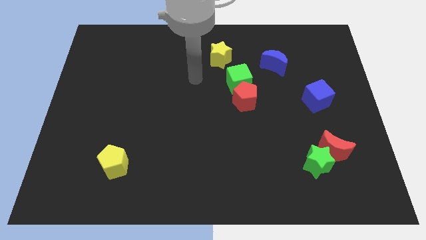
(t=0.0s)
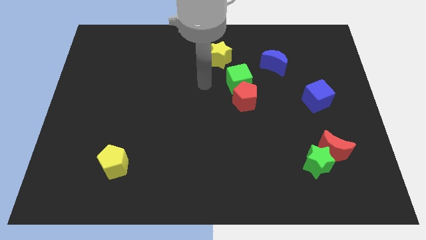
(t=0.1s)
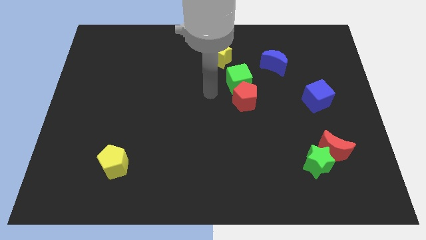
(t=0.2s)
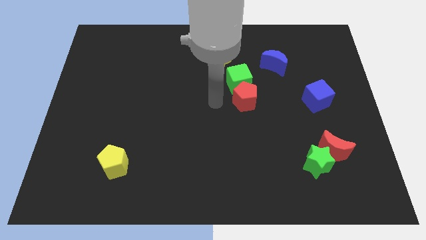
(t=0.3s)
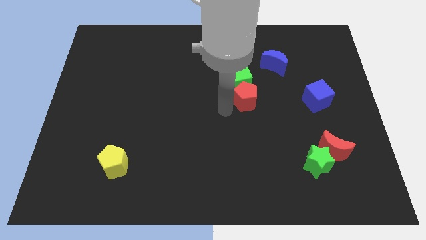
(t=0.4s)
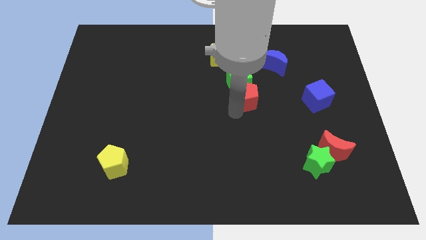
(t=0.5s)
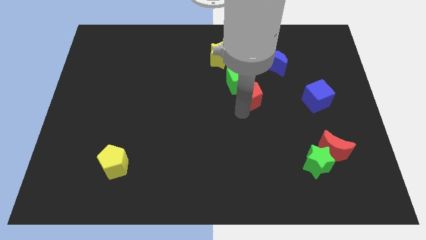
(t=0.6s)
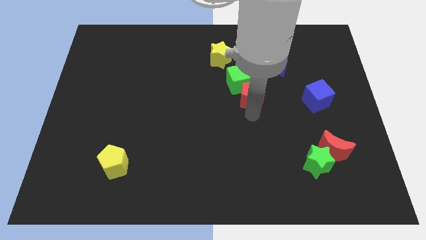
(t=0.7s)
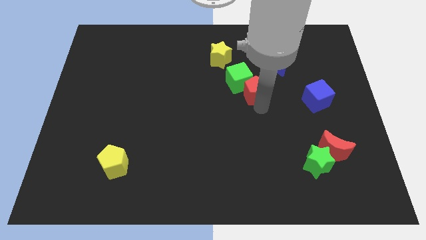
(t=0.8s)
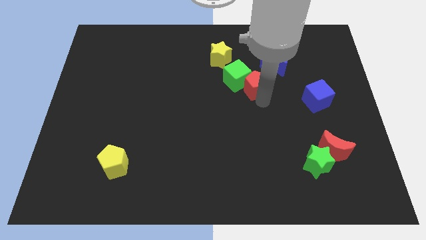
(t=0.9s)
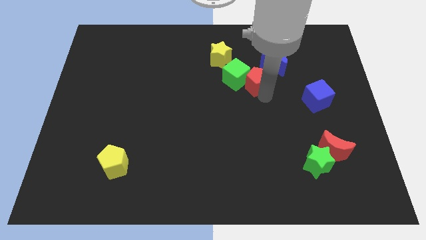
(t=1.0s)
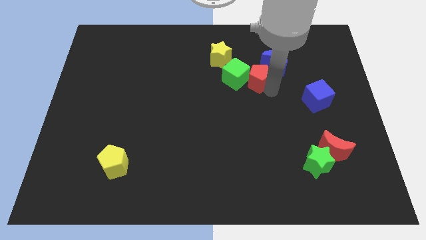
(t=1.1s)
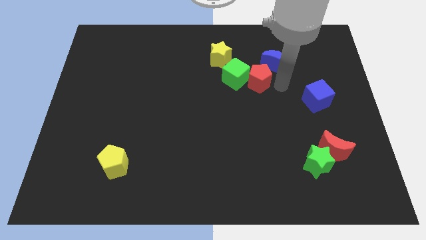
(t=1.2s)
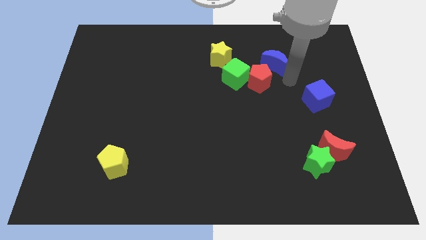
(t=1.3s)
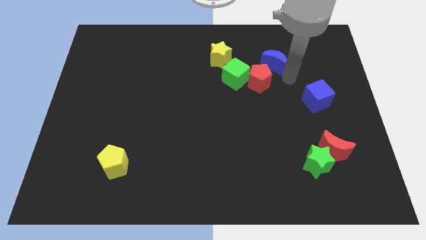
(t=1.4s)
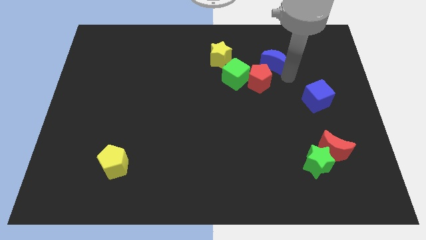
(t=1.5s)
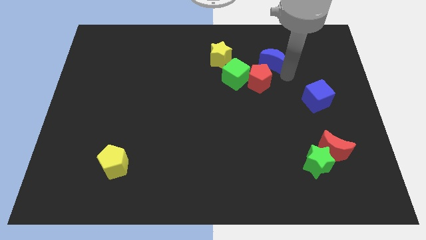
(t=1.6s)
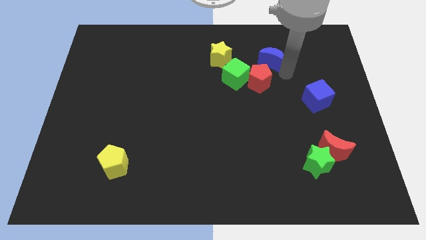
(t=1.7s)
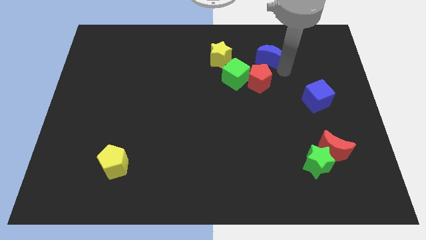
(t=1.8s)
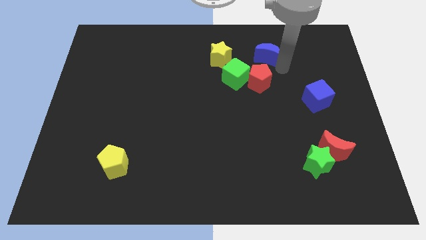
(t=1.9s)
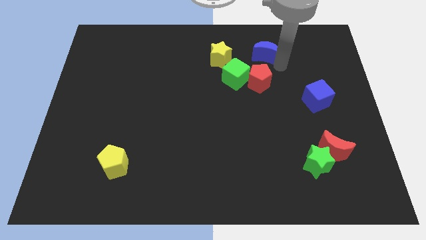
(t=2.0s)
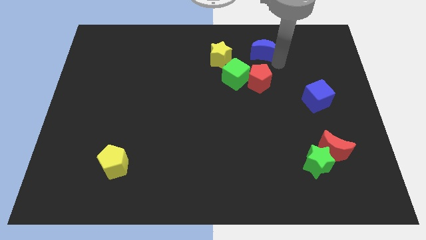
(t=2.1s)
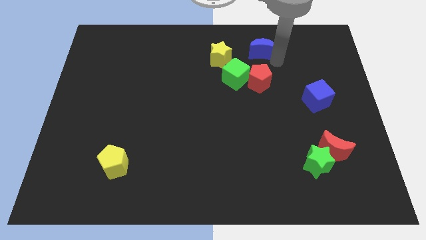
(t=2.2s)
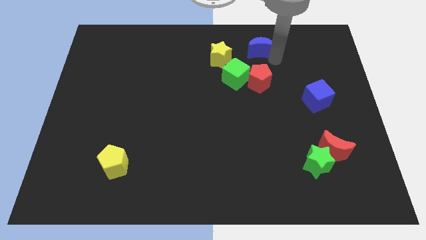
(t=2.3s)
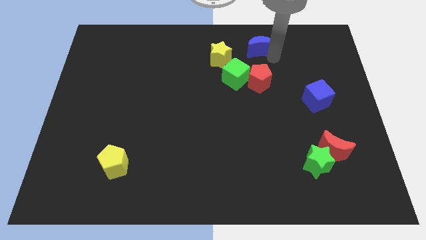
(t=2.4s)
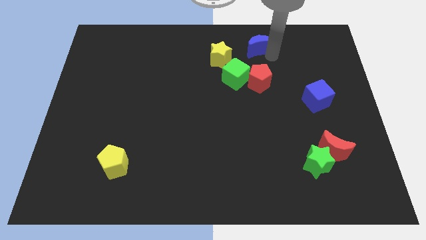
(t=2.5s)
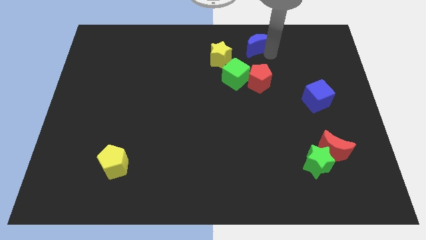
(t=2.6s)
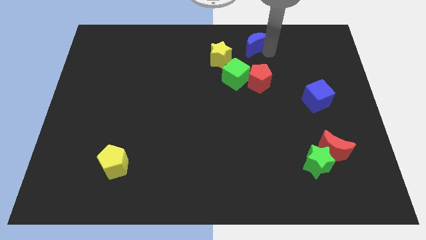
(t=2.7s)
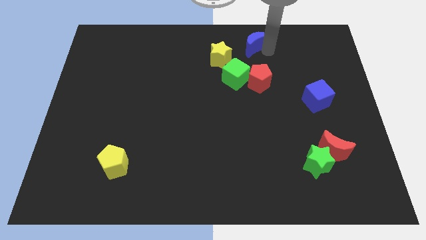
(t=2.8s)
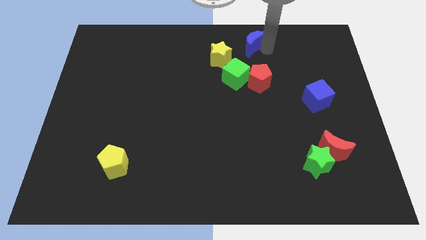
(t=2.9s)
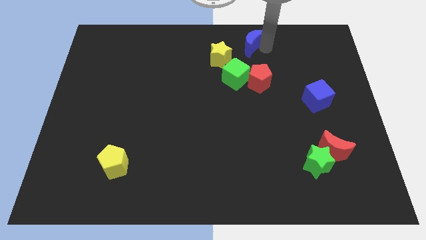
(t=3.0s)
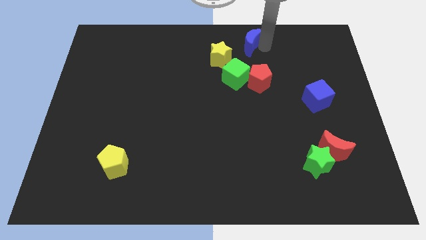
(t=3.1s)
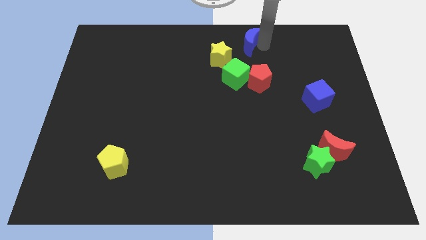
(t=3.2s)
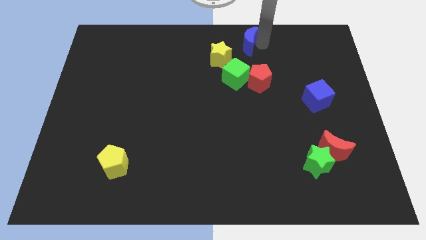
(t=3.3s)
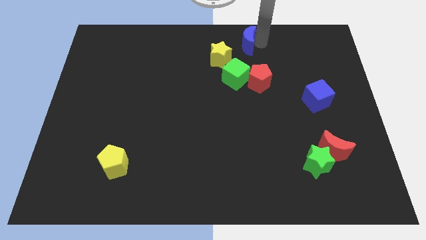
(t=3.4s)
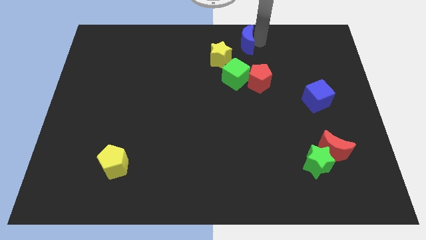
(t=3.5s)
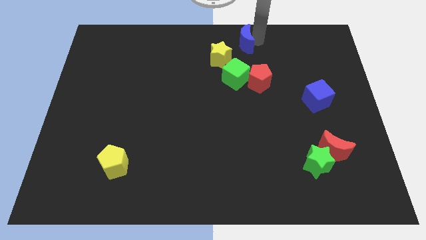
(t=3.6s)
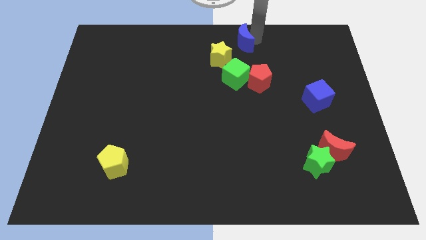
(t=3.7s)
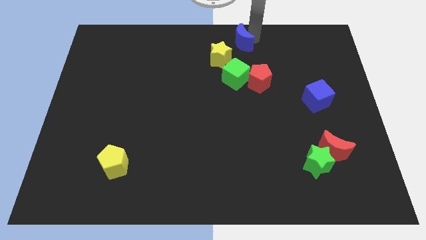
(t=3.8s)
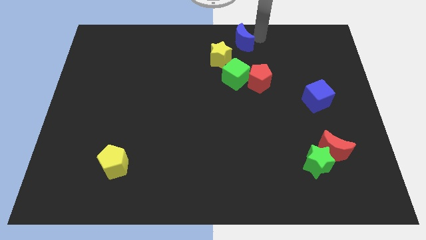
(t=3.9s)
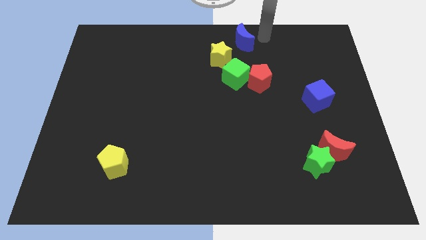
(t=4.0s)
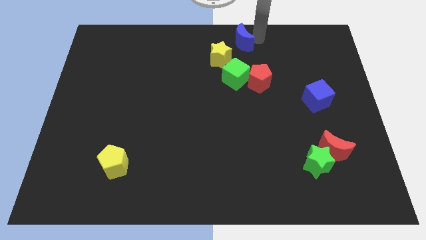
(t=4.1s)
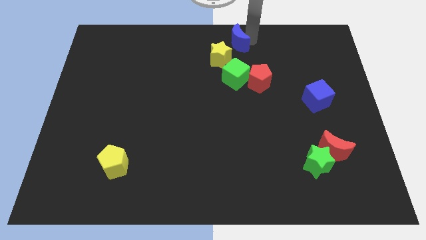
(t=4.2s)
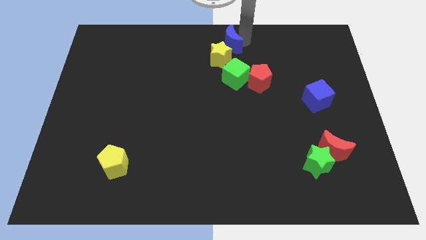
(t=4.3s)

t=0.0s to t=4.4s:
slightly slide the blue moon to the left

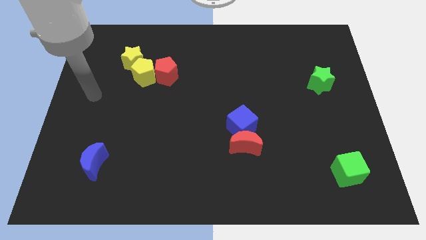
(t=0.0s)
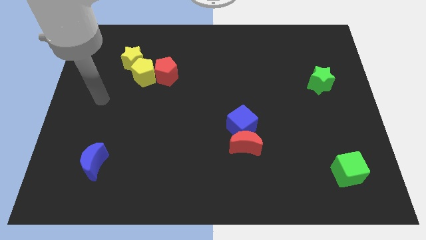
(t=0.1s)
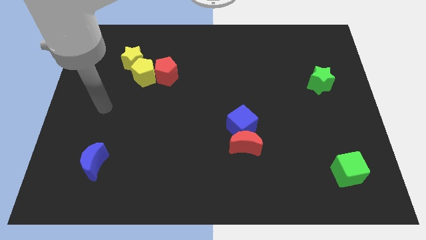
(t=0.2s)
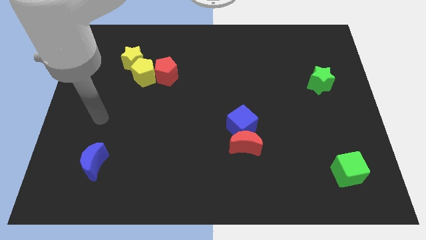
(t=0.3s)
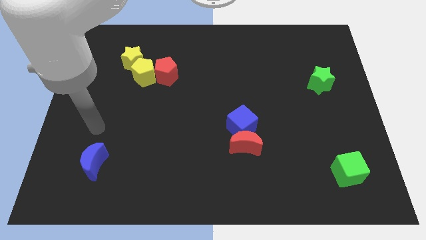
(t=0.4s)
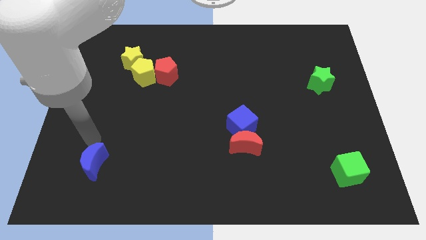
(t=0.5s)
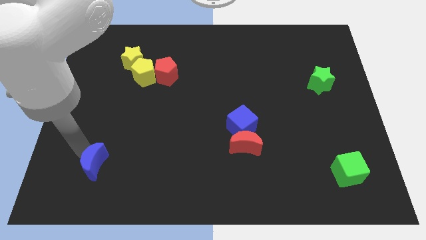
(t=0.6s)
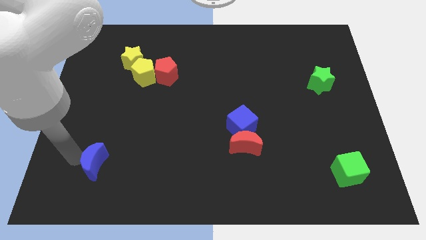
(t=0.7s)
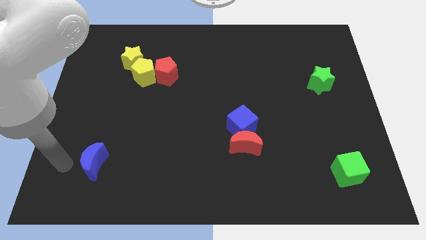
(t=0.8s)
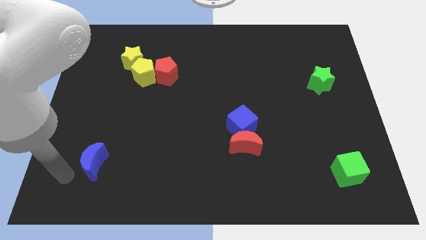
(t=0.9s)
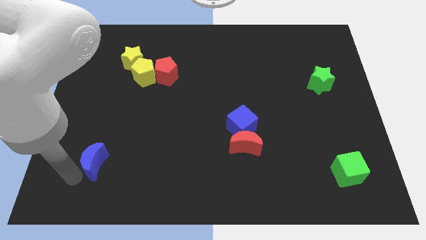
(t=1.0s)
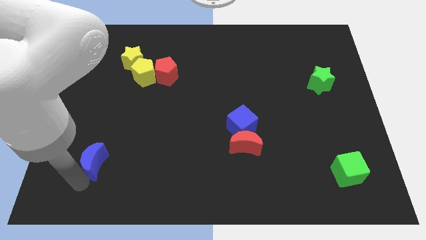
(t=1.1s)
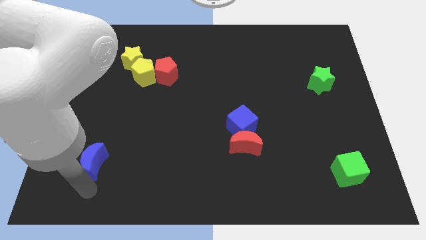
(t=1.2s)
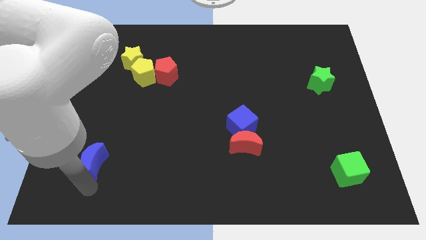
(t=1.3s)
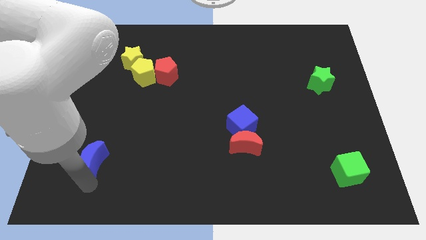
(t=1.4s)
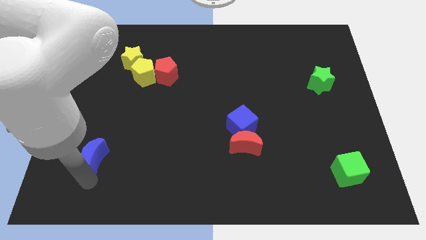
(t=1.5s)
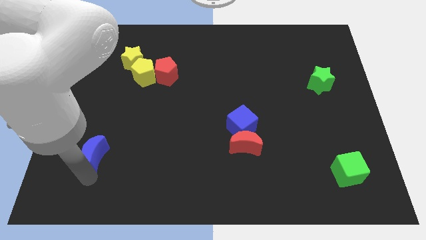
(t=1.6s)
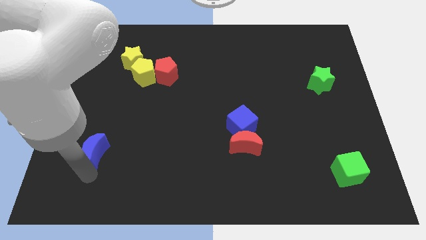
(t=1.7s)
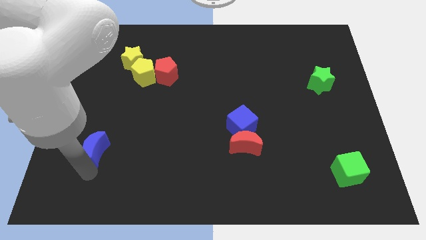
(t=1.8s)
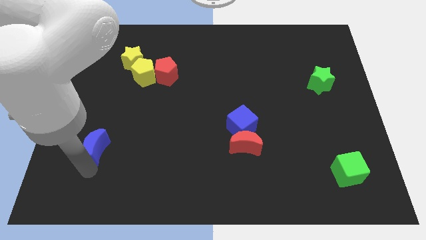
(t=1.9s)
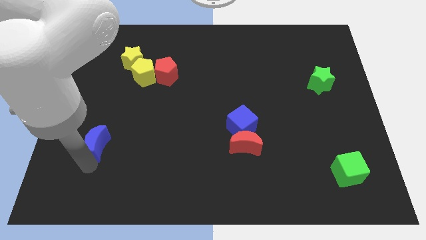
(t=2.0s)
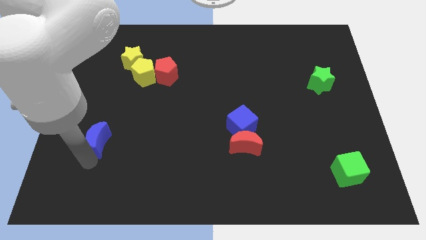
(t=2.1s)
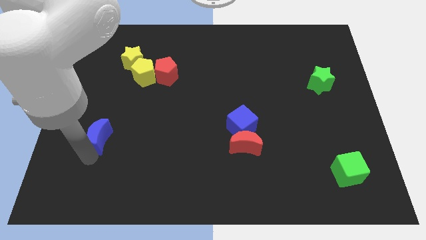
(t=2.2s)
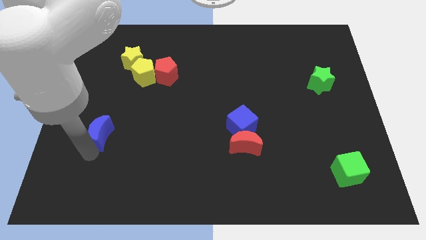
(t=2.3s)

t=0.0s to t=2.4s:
slide the blue moon a little bit up

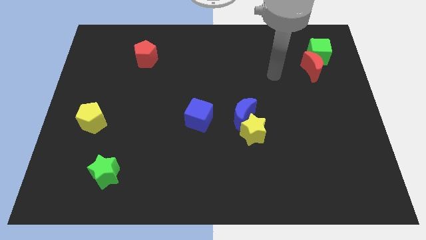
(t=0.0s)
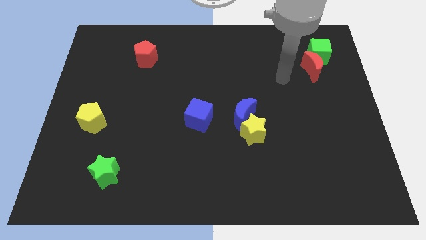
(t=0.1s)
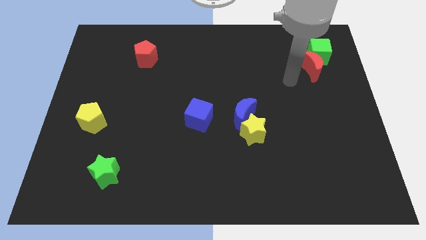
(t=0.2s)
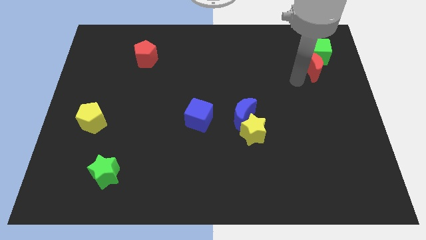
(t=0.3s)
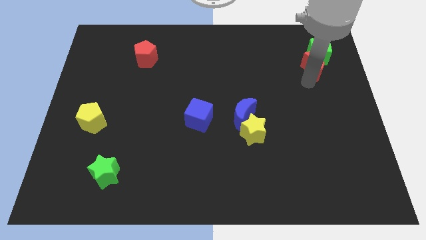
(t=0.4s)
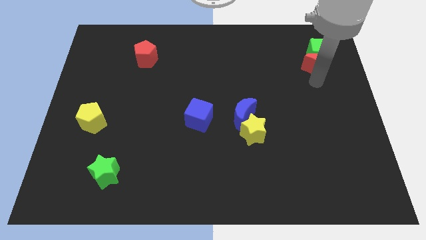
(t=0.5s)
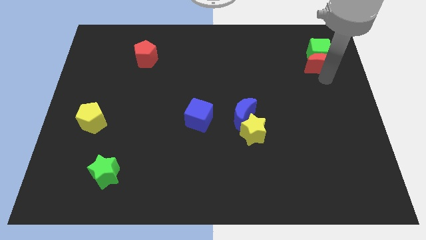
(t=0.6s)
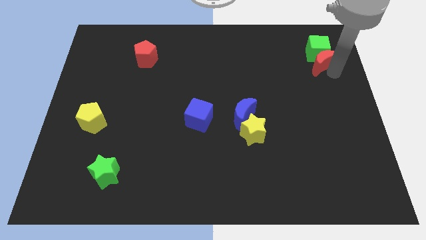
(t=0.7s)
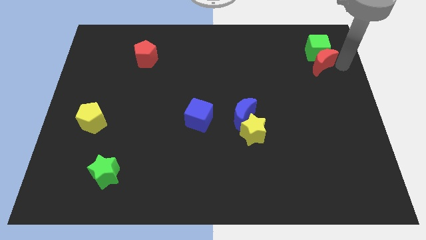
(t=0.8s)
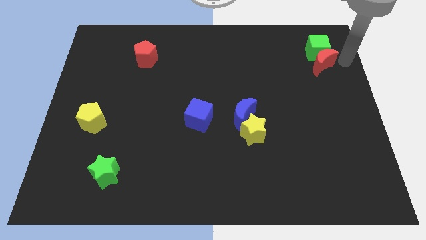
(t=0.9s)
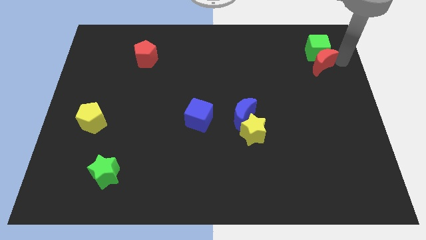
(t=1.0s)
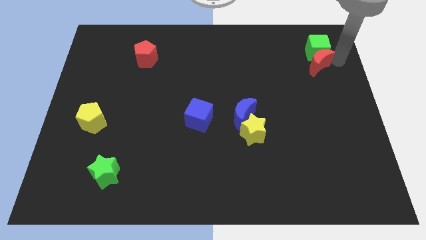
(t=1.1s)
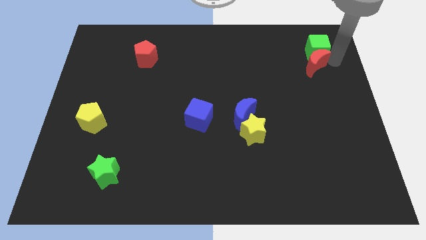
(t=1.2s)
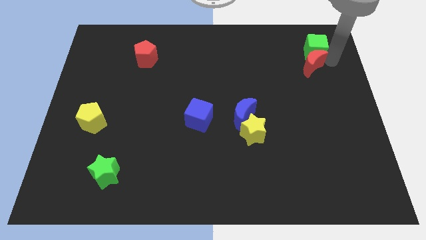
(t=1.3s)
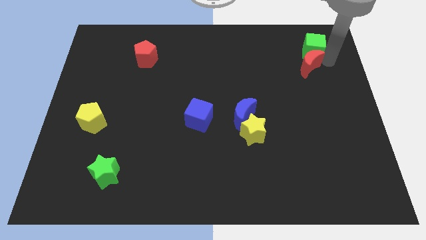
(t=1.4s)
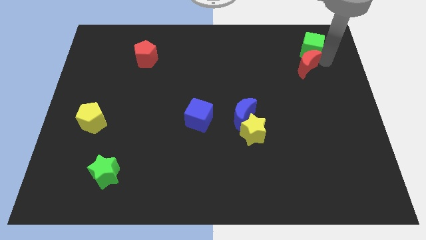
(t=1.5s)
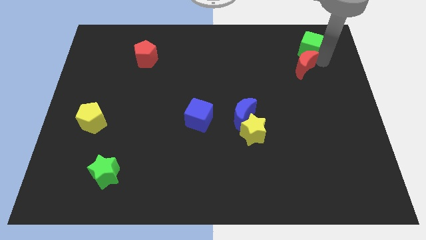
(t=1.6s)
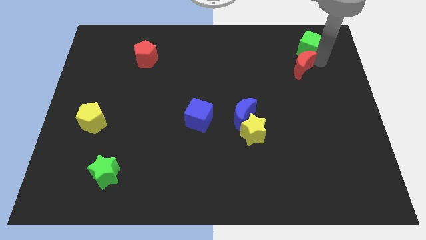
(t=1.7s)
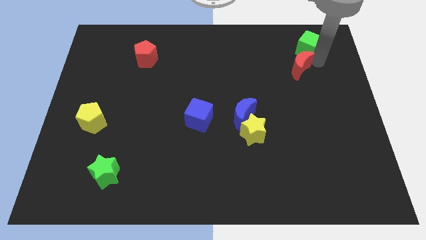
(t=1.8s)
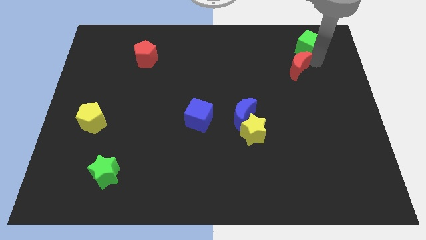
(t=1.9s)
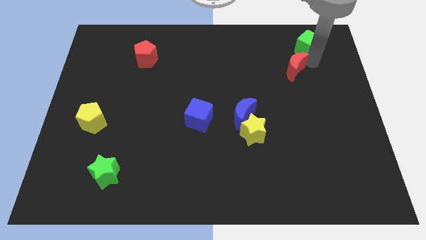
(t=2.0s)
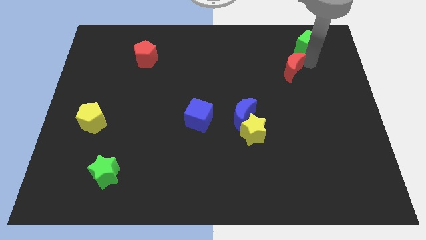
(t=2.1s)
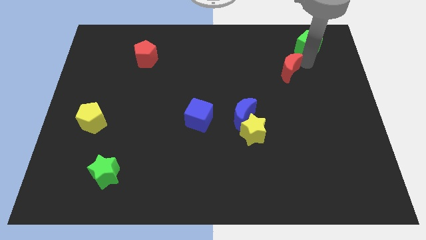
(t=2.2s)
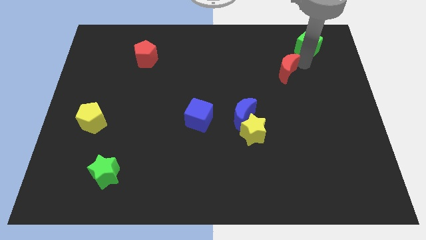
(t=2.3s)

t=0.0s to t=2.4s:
slide the red moon a little bit left
